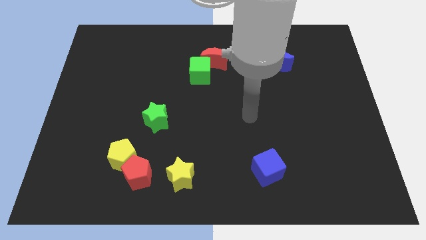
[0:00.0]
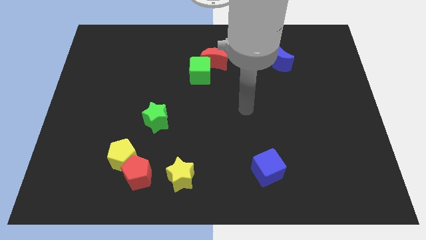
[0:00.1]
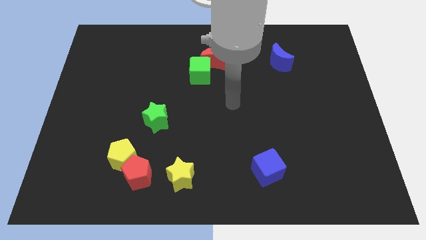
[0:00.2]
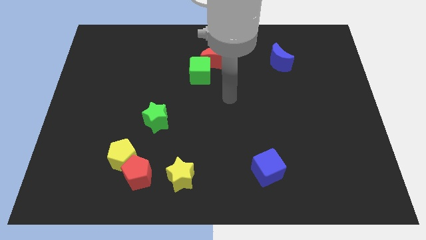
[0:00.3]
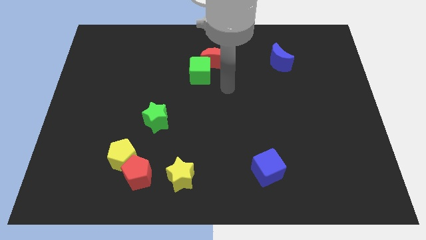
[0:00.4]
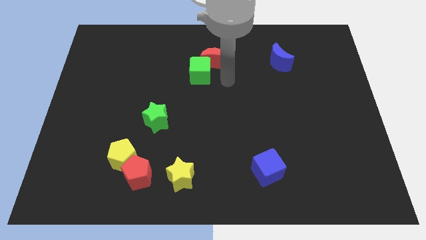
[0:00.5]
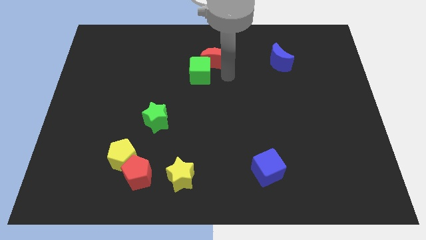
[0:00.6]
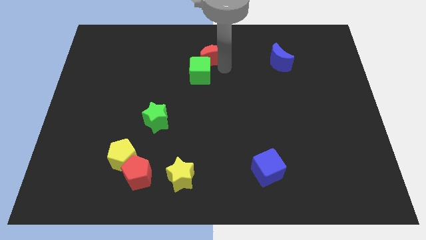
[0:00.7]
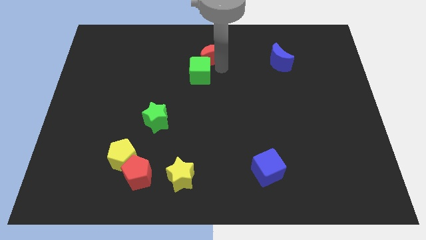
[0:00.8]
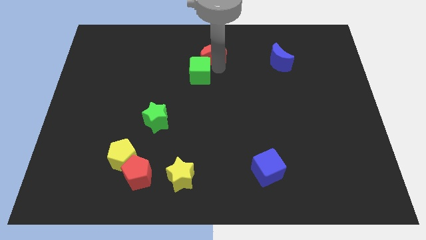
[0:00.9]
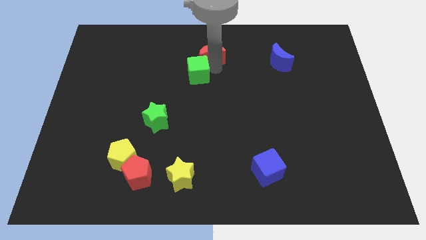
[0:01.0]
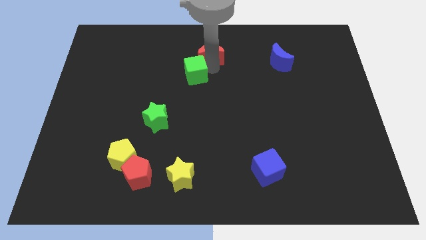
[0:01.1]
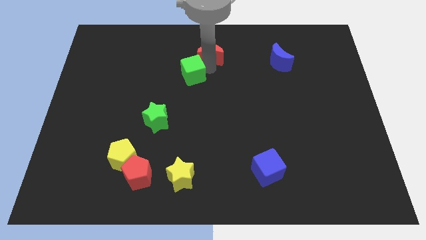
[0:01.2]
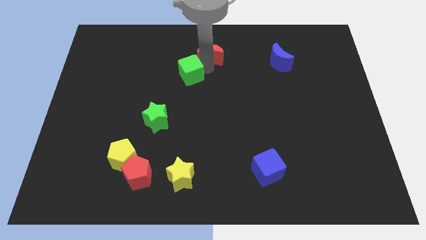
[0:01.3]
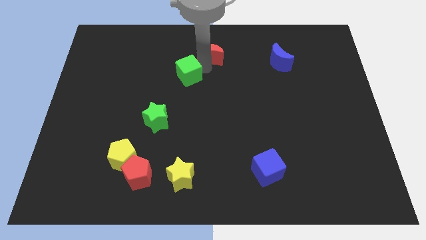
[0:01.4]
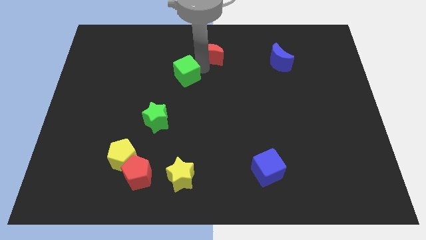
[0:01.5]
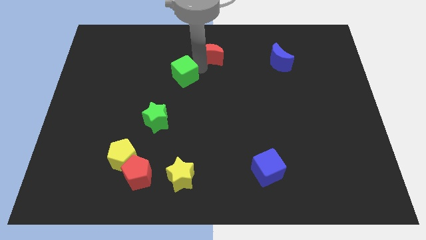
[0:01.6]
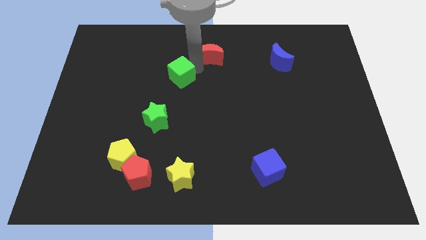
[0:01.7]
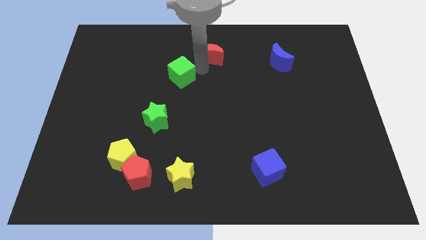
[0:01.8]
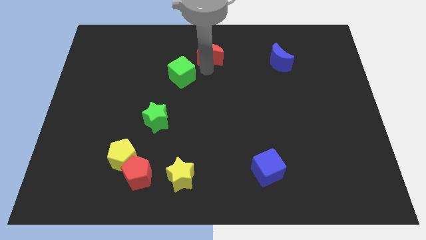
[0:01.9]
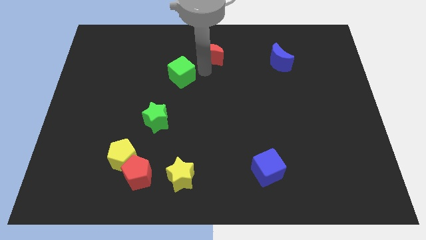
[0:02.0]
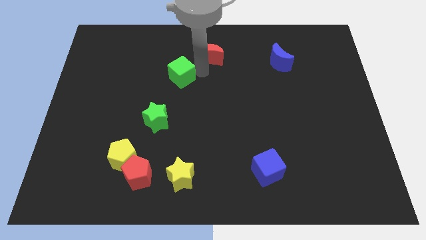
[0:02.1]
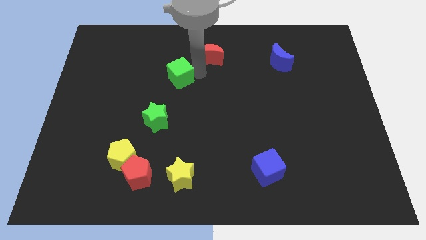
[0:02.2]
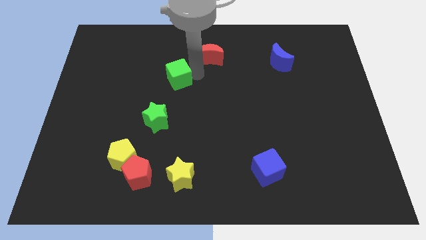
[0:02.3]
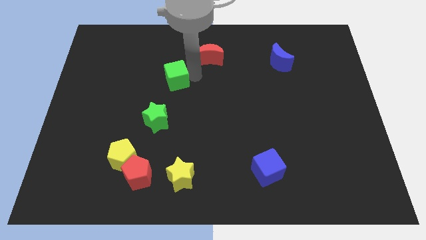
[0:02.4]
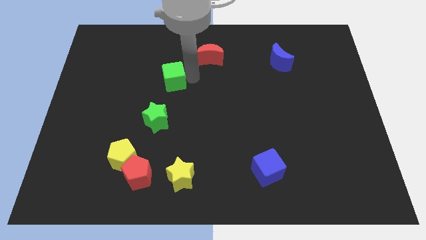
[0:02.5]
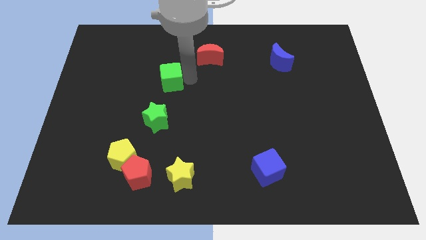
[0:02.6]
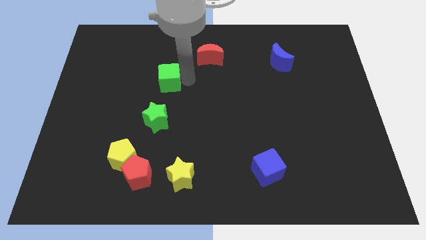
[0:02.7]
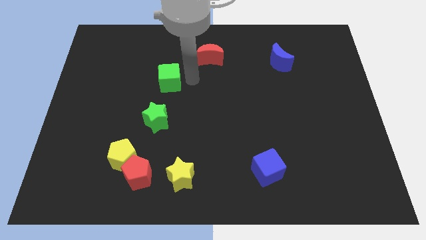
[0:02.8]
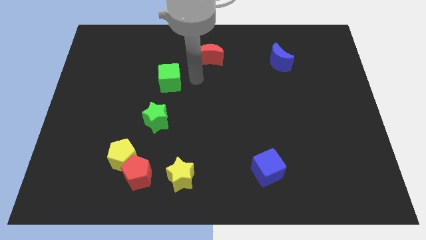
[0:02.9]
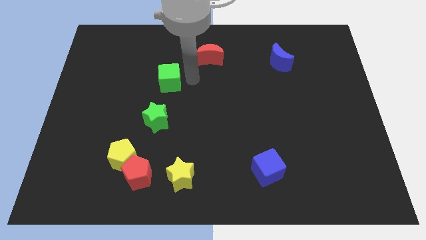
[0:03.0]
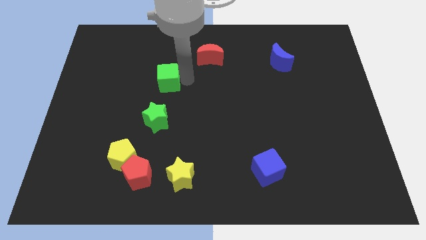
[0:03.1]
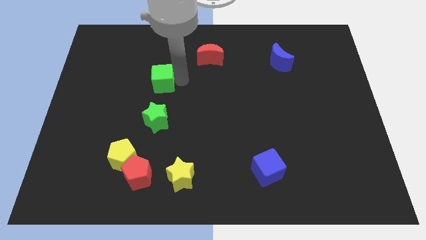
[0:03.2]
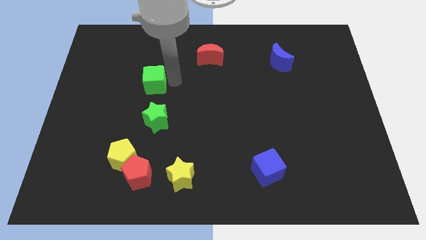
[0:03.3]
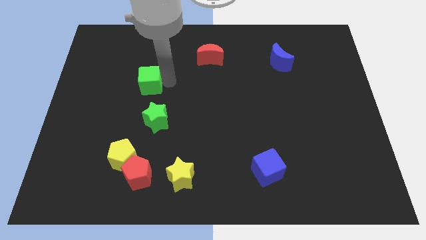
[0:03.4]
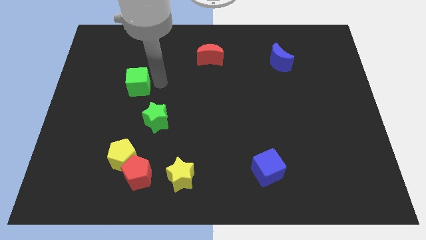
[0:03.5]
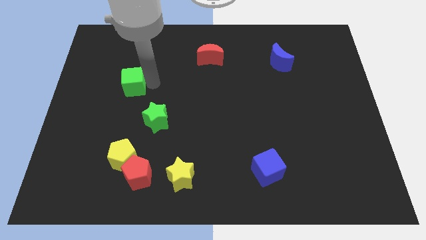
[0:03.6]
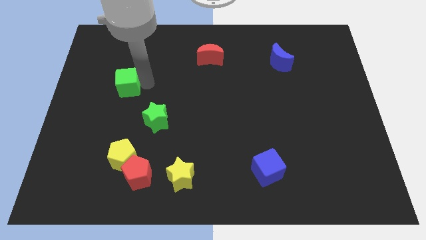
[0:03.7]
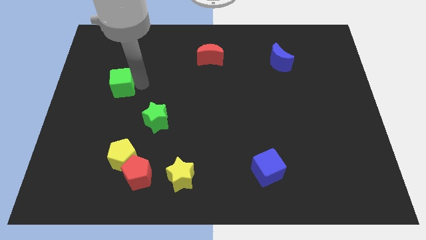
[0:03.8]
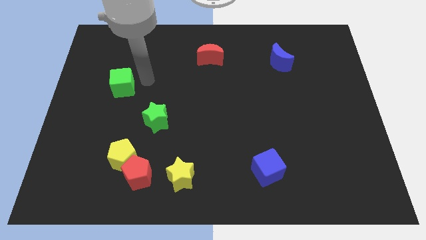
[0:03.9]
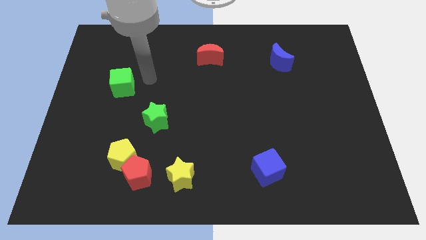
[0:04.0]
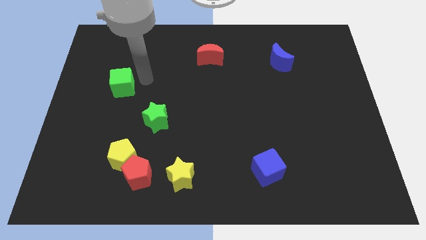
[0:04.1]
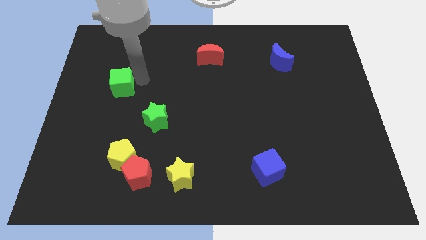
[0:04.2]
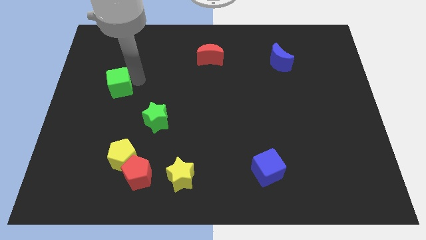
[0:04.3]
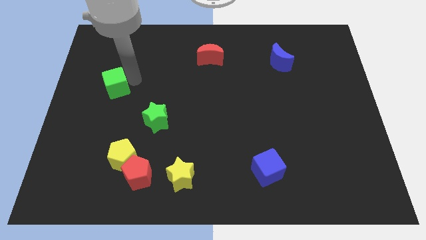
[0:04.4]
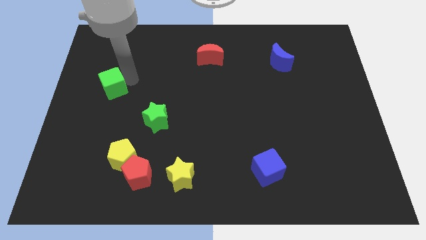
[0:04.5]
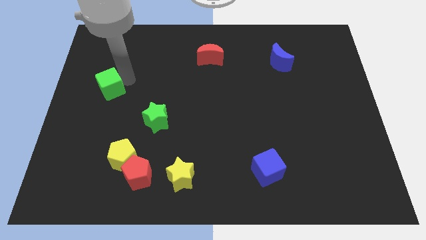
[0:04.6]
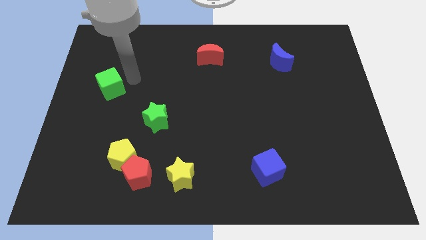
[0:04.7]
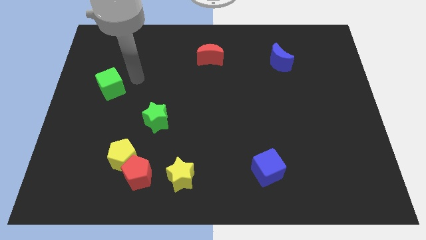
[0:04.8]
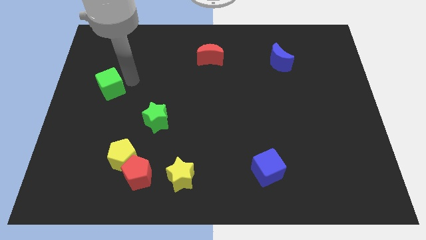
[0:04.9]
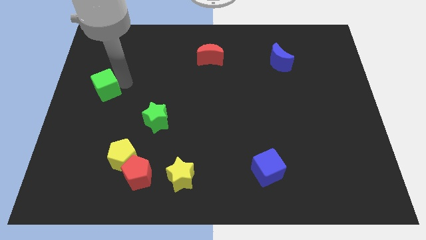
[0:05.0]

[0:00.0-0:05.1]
put the green cube to the left side of the board

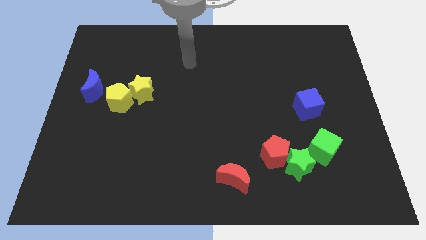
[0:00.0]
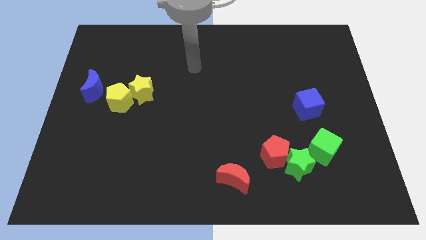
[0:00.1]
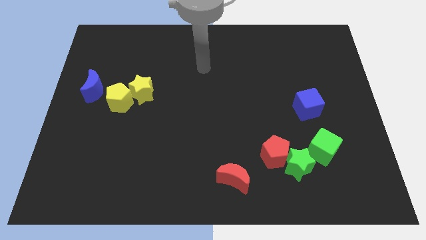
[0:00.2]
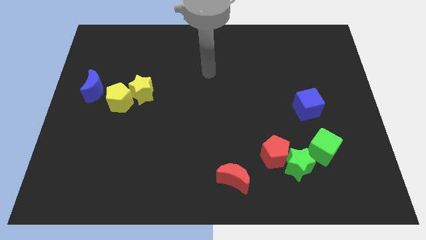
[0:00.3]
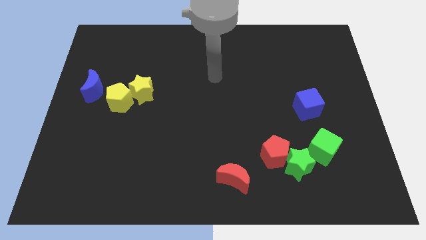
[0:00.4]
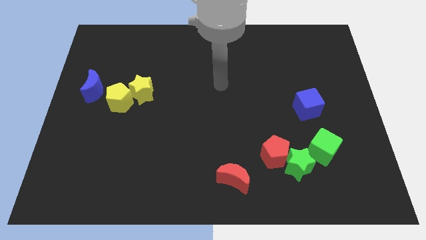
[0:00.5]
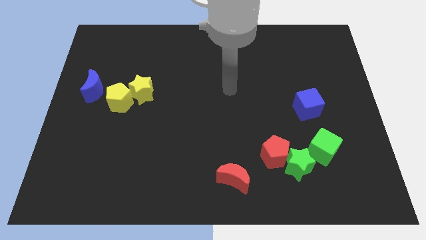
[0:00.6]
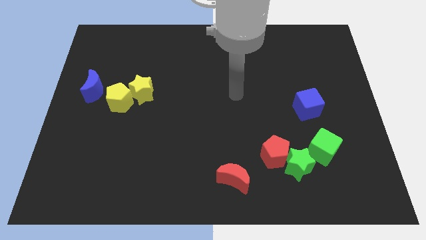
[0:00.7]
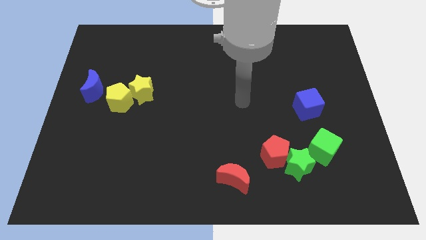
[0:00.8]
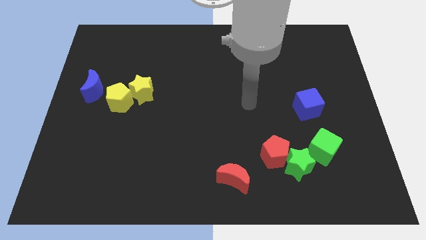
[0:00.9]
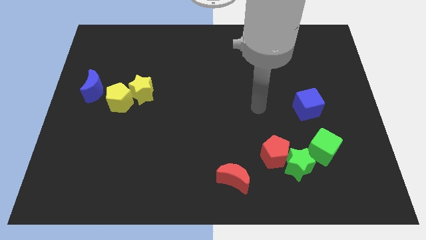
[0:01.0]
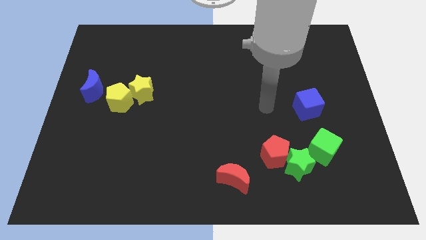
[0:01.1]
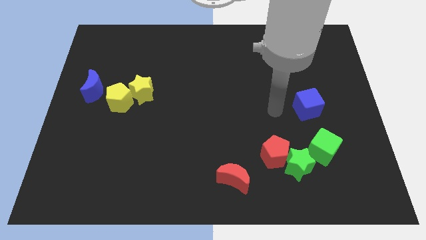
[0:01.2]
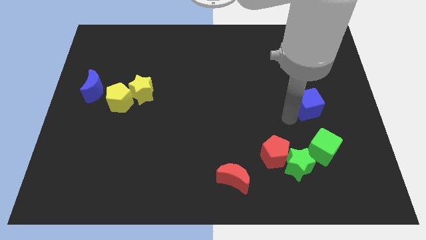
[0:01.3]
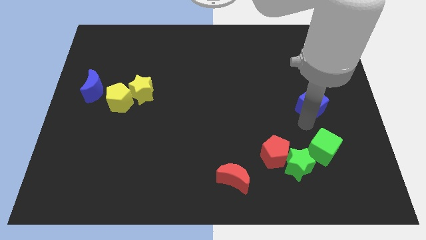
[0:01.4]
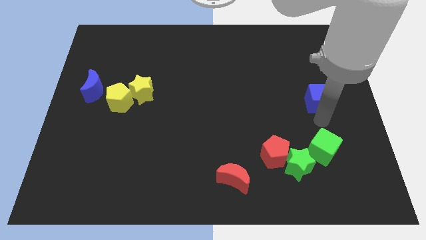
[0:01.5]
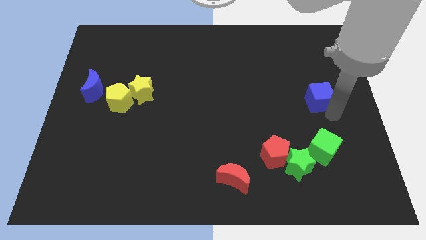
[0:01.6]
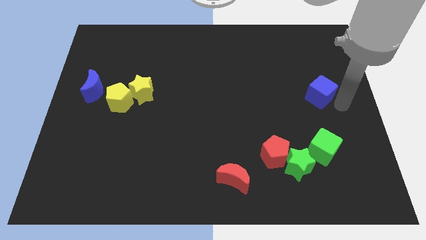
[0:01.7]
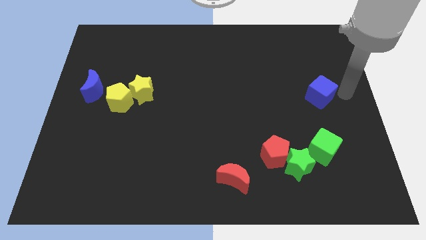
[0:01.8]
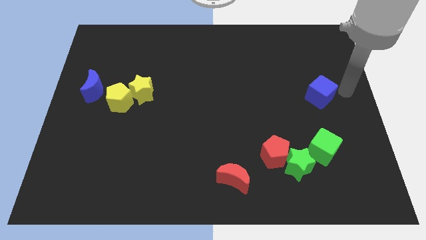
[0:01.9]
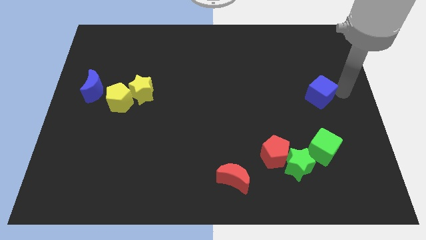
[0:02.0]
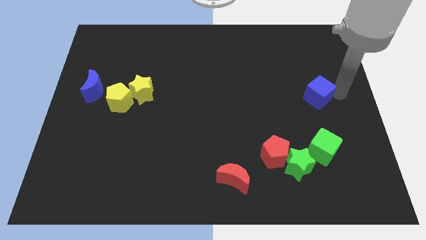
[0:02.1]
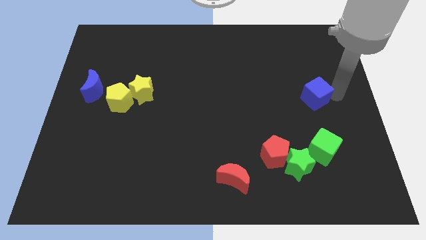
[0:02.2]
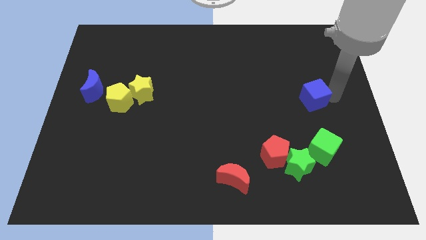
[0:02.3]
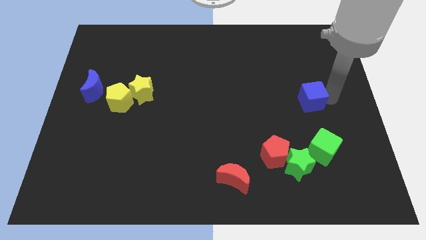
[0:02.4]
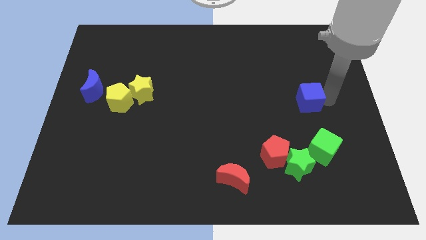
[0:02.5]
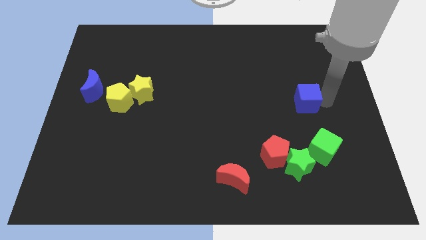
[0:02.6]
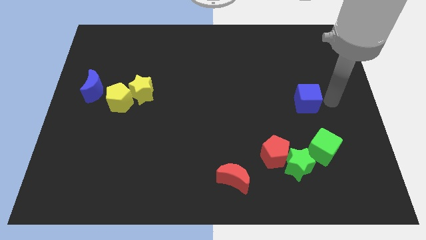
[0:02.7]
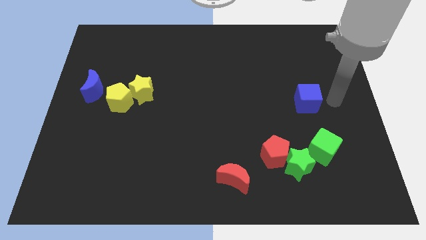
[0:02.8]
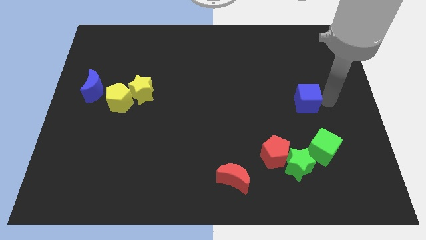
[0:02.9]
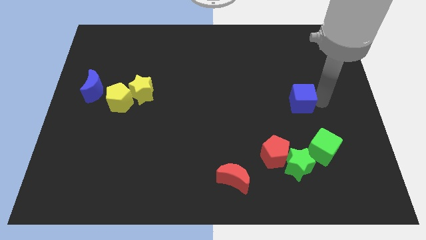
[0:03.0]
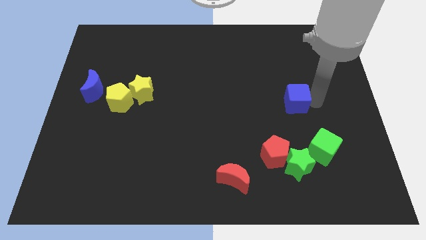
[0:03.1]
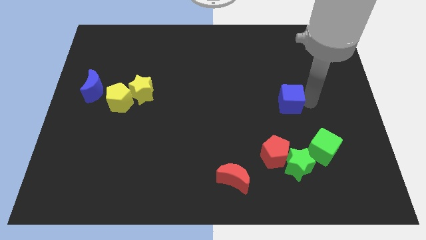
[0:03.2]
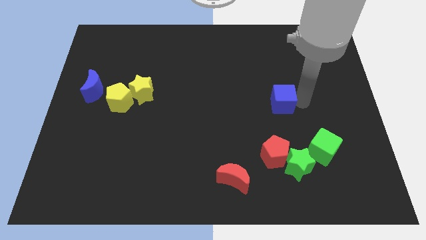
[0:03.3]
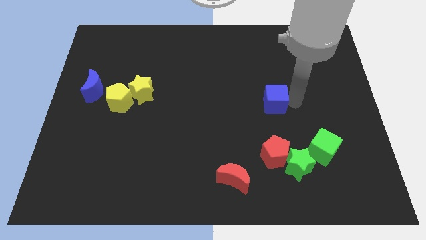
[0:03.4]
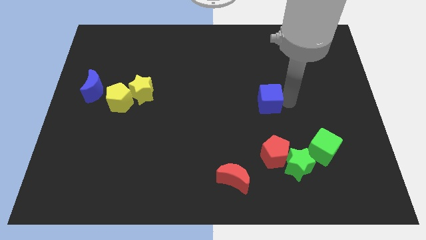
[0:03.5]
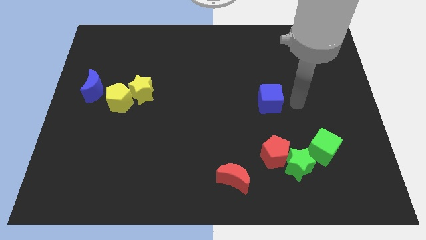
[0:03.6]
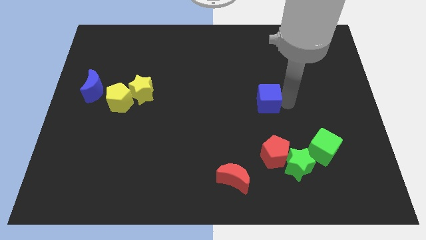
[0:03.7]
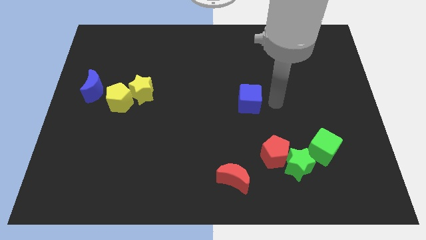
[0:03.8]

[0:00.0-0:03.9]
move the blue cube to the middle
